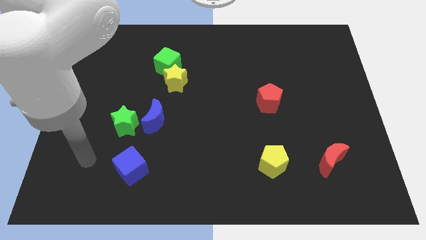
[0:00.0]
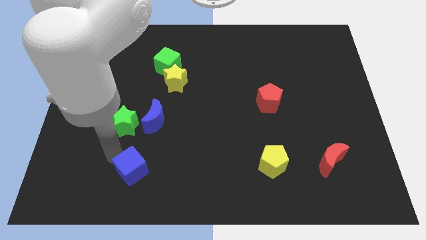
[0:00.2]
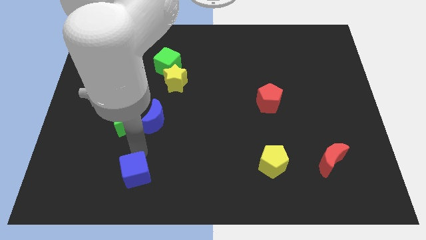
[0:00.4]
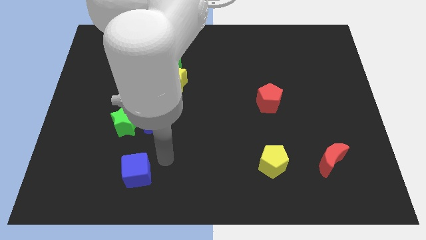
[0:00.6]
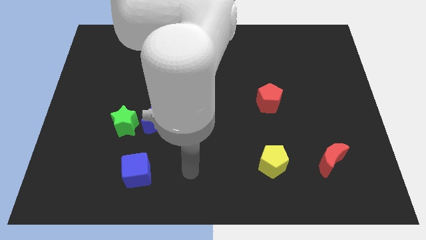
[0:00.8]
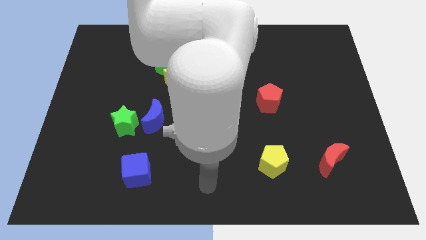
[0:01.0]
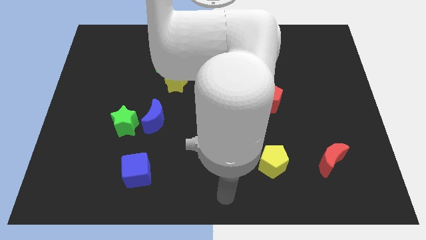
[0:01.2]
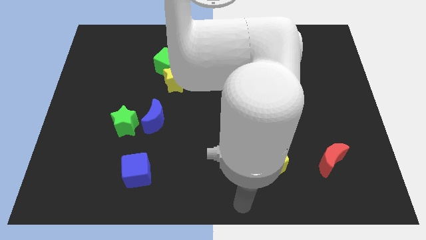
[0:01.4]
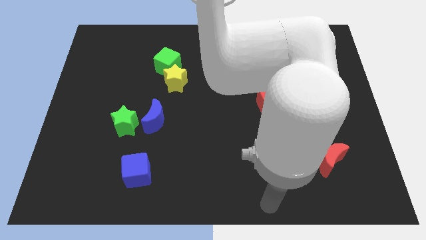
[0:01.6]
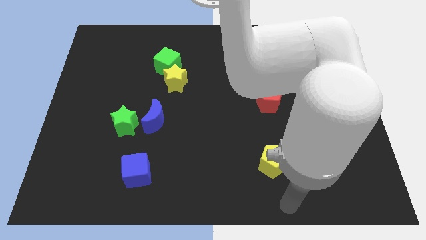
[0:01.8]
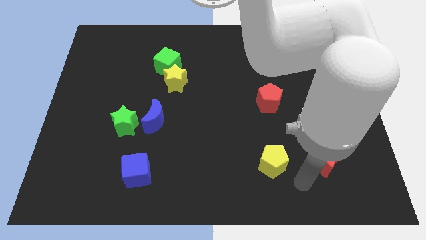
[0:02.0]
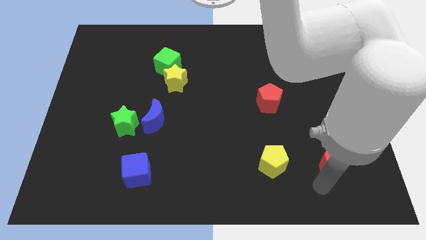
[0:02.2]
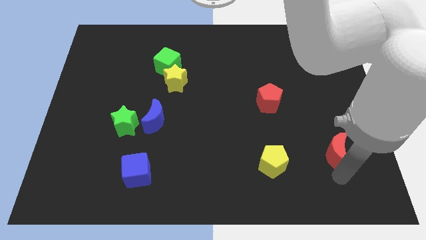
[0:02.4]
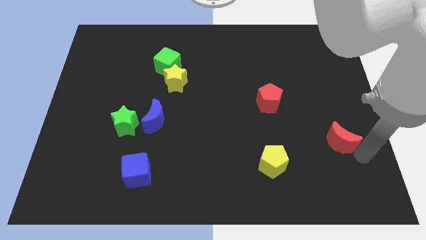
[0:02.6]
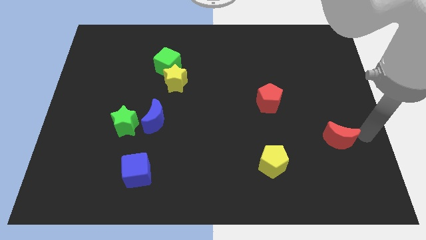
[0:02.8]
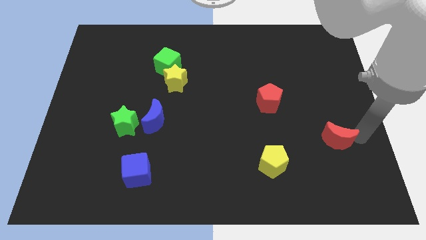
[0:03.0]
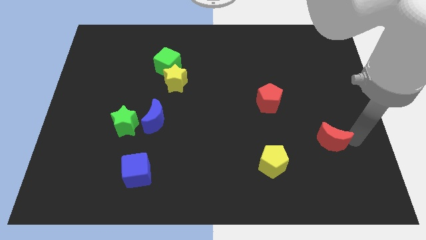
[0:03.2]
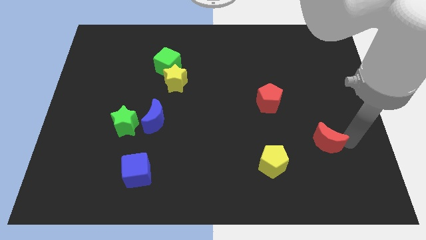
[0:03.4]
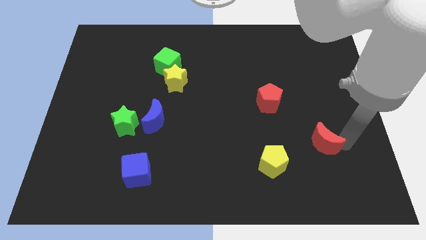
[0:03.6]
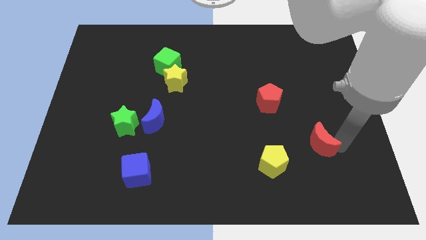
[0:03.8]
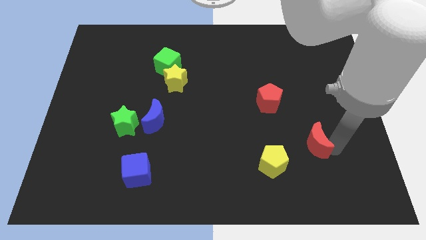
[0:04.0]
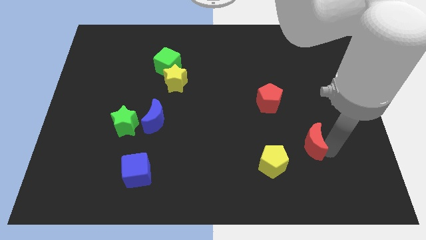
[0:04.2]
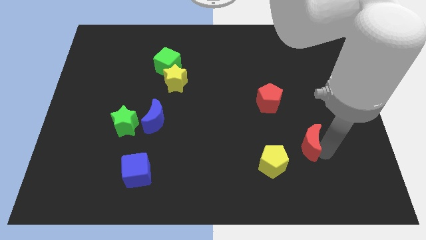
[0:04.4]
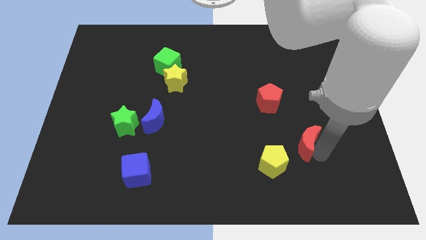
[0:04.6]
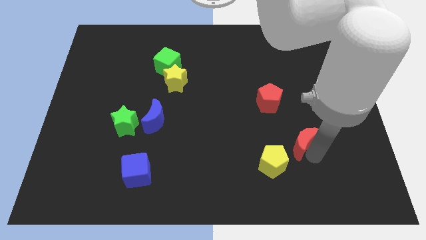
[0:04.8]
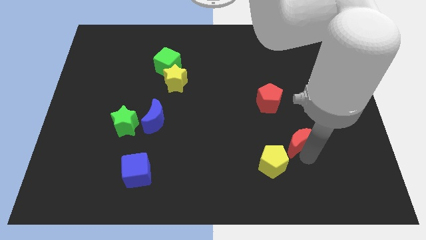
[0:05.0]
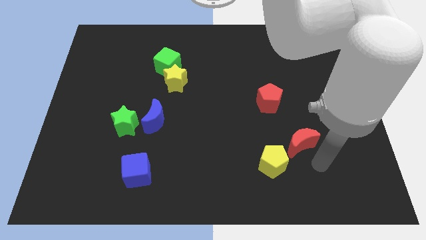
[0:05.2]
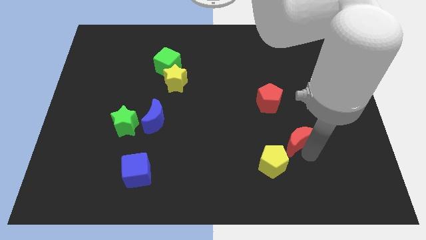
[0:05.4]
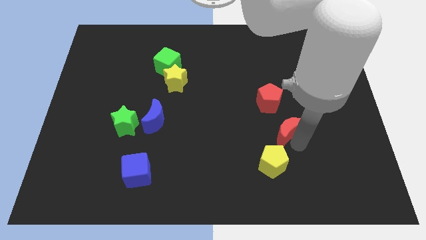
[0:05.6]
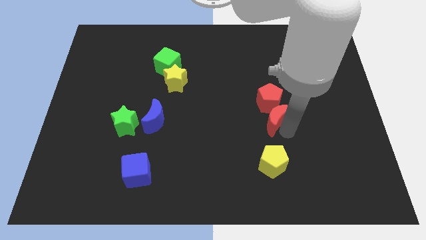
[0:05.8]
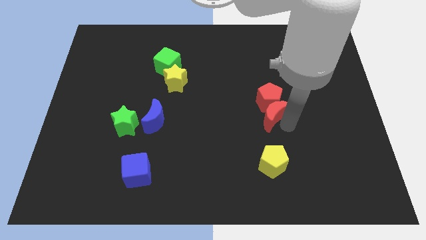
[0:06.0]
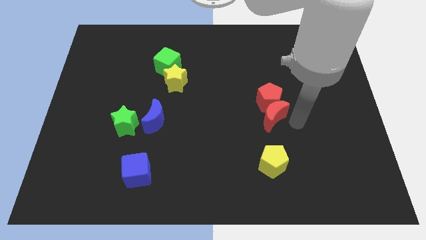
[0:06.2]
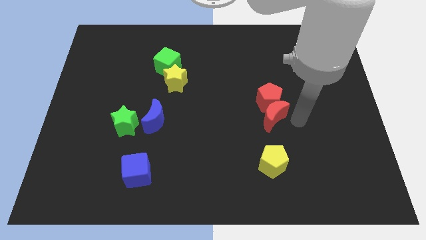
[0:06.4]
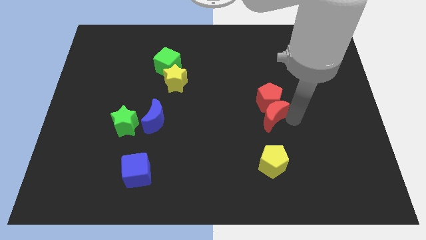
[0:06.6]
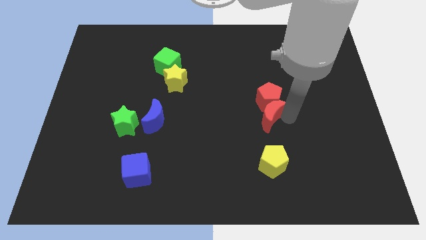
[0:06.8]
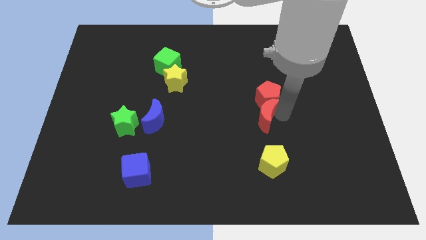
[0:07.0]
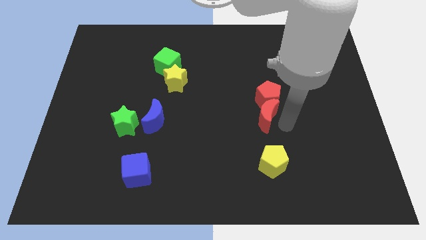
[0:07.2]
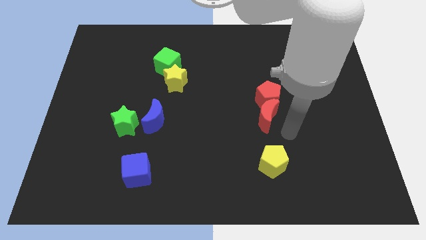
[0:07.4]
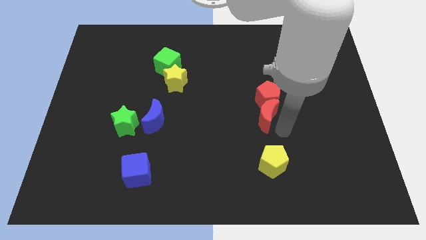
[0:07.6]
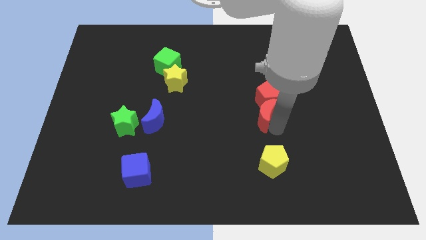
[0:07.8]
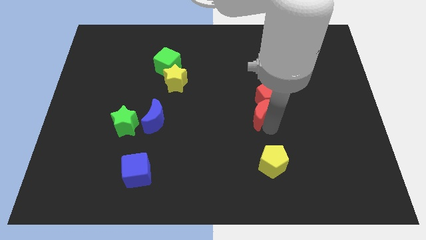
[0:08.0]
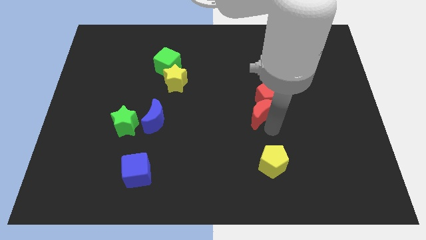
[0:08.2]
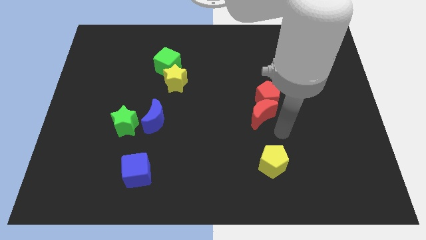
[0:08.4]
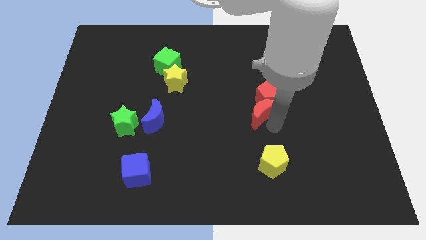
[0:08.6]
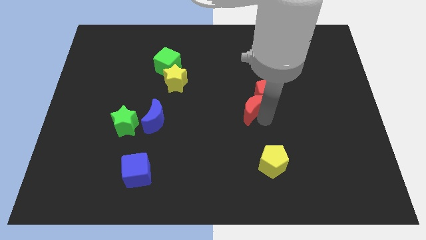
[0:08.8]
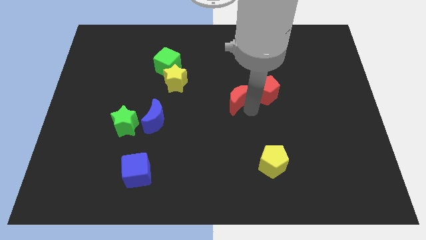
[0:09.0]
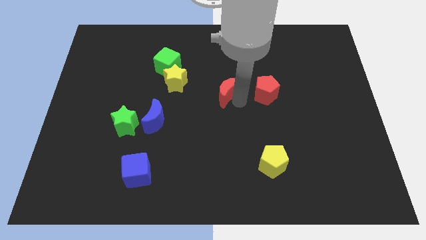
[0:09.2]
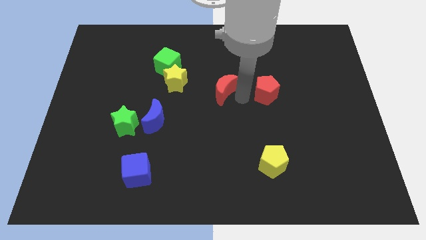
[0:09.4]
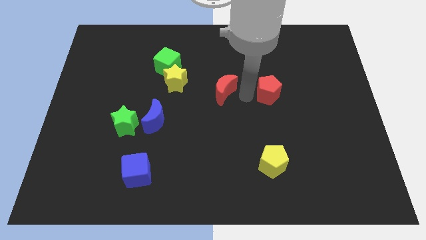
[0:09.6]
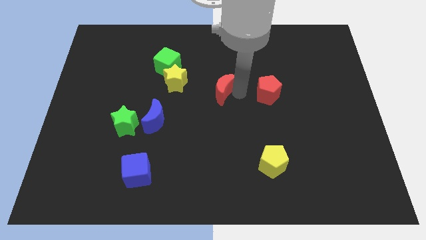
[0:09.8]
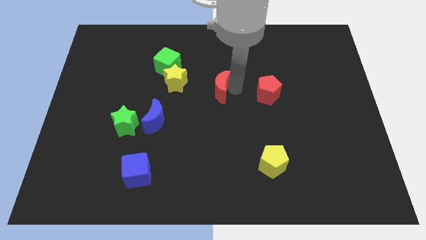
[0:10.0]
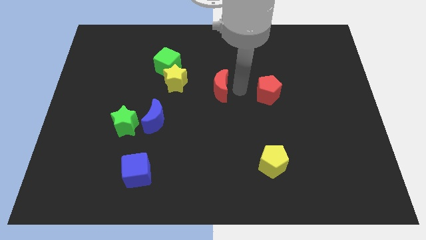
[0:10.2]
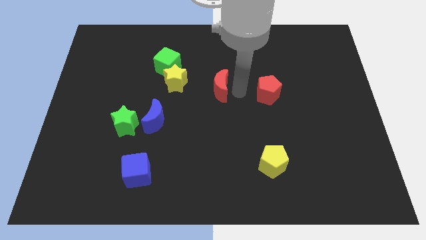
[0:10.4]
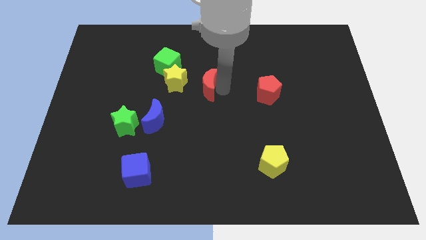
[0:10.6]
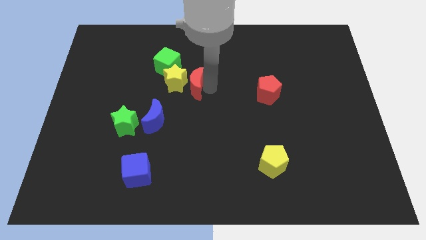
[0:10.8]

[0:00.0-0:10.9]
slide the red moon close to the yellow star

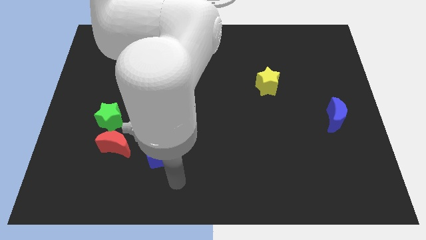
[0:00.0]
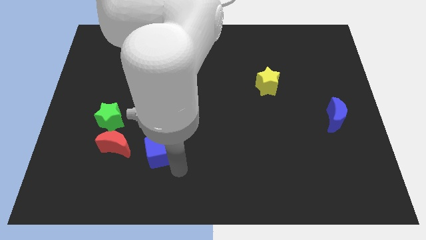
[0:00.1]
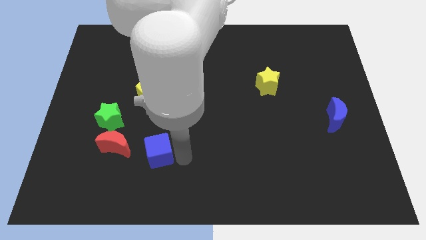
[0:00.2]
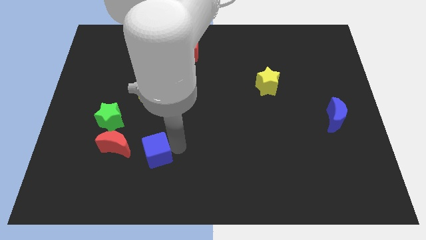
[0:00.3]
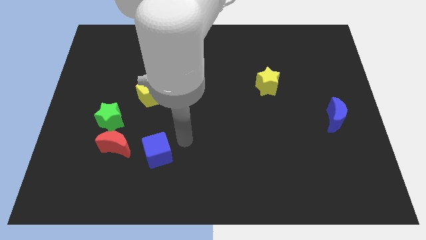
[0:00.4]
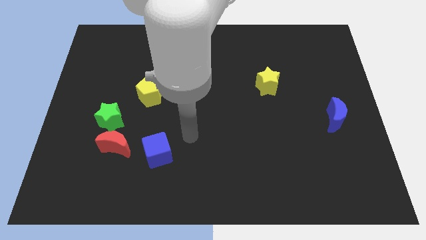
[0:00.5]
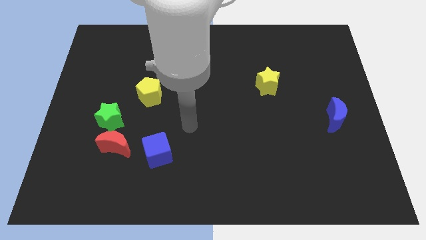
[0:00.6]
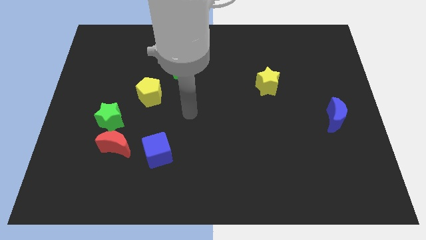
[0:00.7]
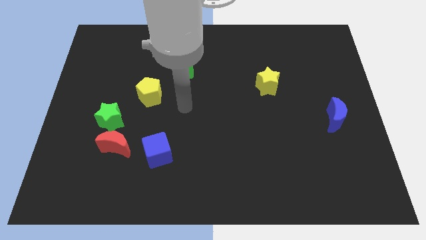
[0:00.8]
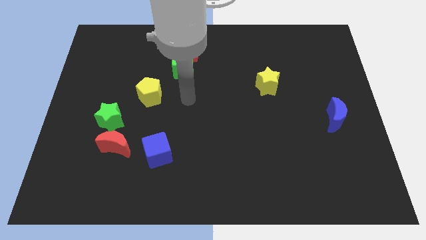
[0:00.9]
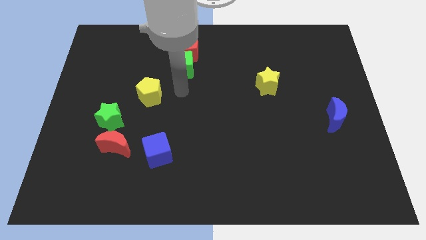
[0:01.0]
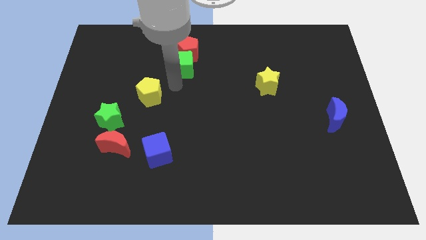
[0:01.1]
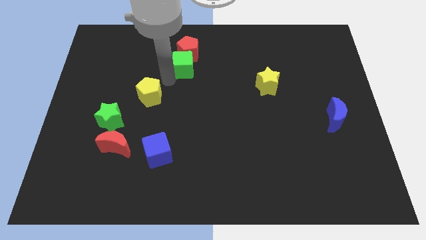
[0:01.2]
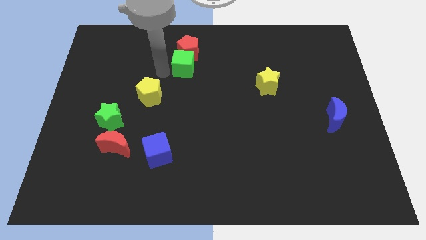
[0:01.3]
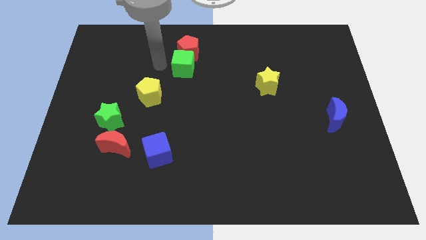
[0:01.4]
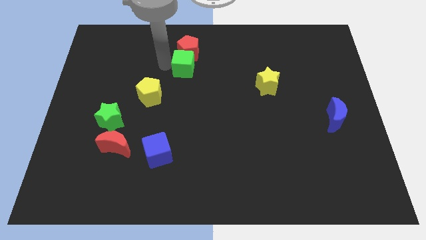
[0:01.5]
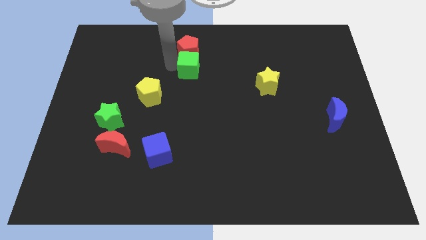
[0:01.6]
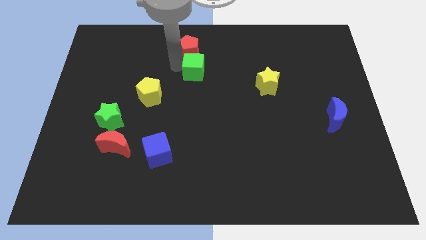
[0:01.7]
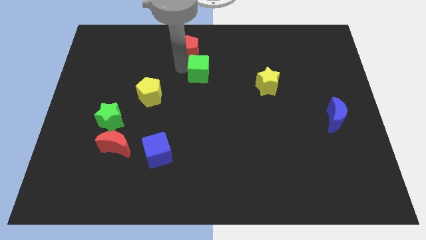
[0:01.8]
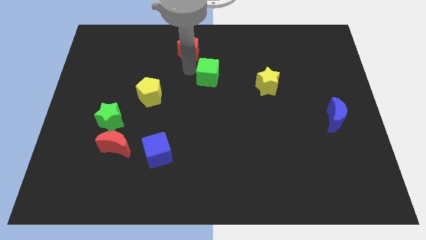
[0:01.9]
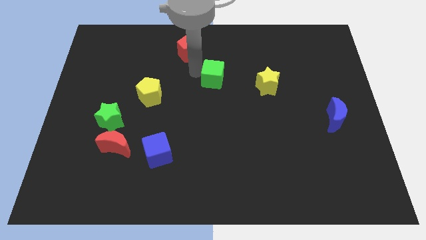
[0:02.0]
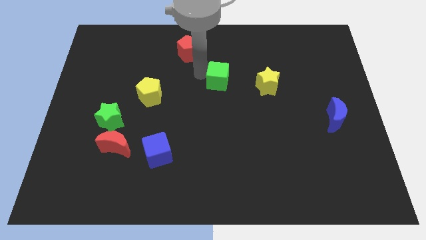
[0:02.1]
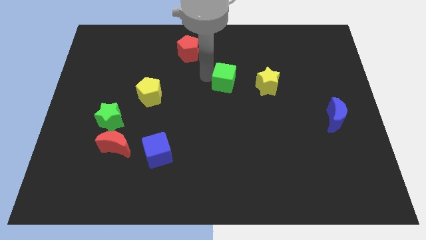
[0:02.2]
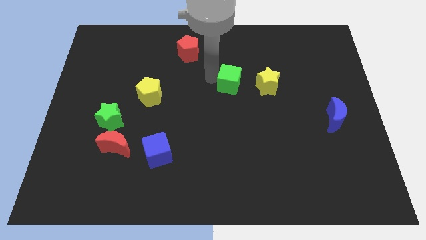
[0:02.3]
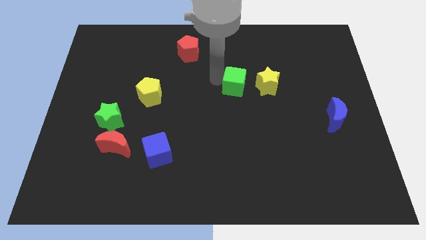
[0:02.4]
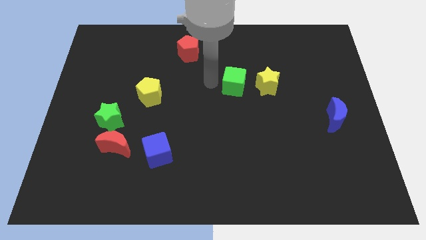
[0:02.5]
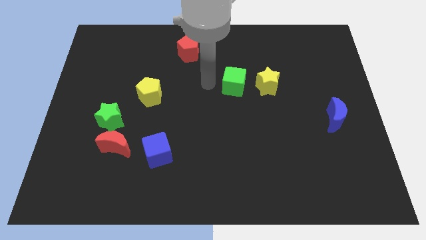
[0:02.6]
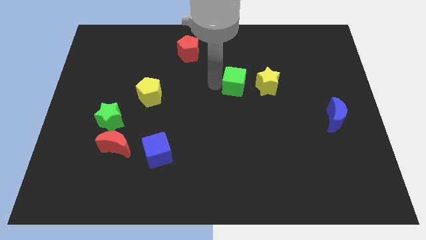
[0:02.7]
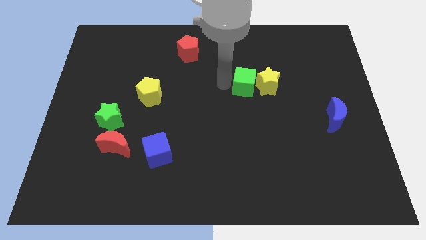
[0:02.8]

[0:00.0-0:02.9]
put the green cube towards the yellow star
